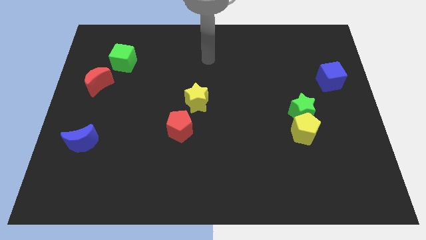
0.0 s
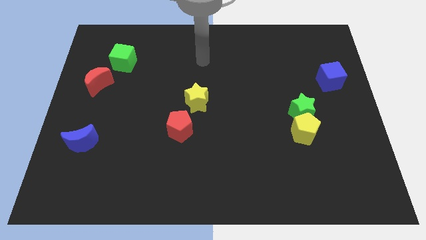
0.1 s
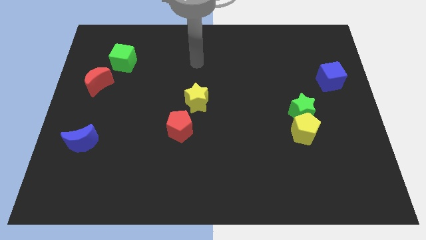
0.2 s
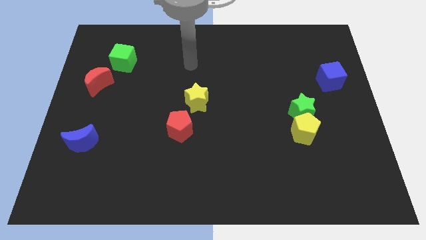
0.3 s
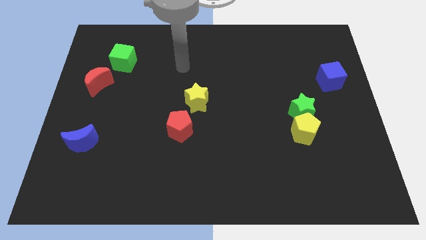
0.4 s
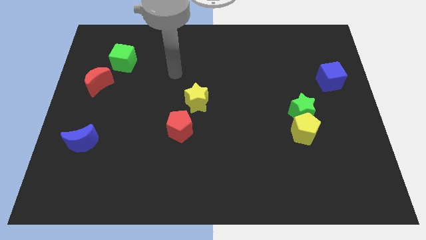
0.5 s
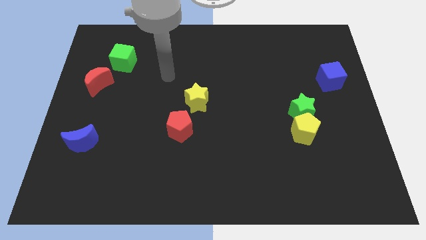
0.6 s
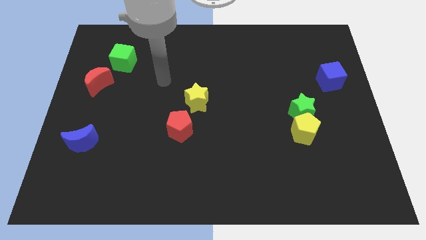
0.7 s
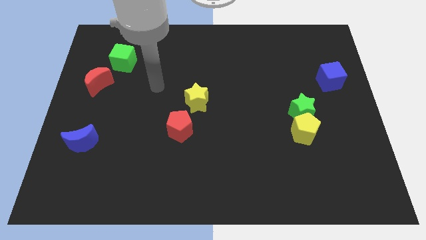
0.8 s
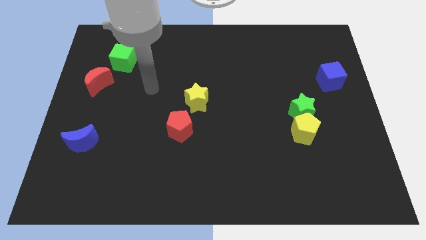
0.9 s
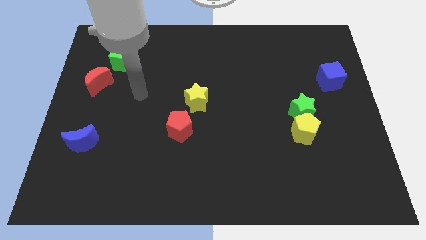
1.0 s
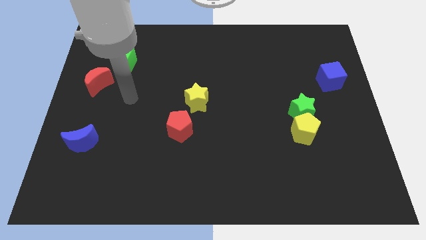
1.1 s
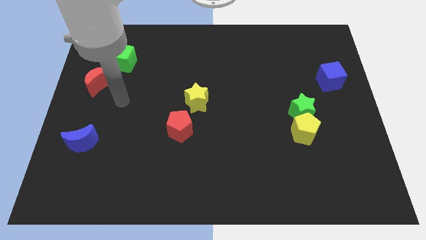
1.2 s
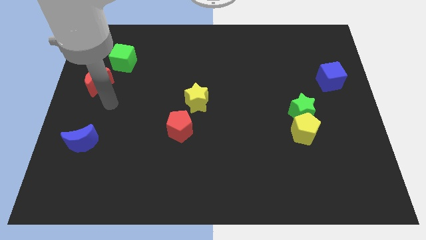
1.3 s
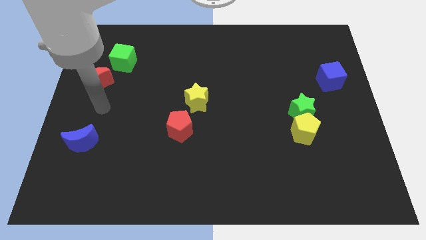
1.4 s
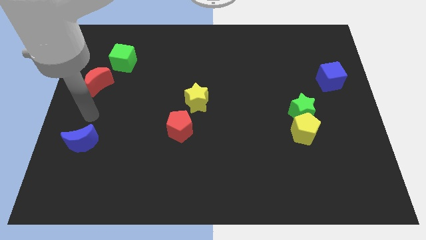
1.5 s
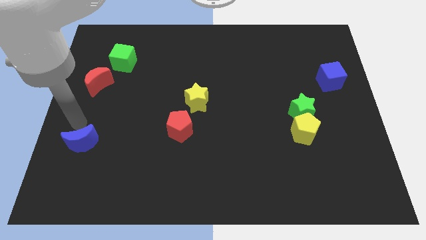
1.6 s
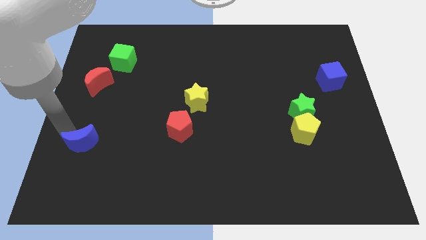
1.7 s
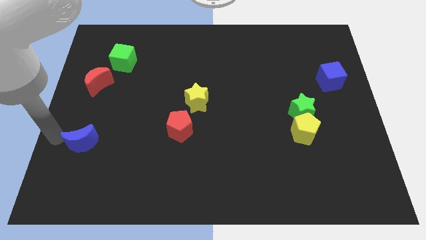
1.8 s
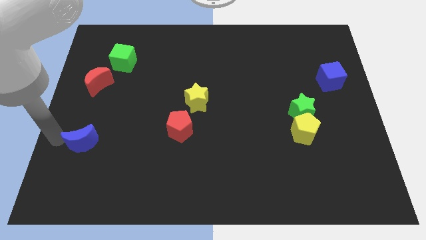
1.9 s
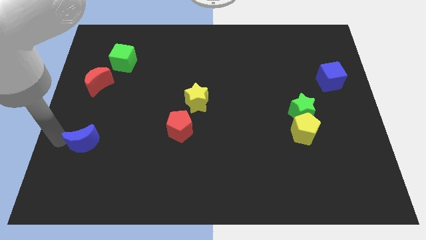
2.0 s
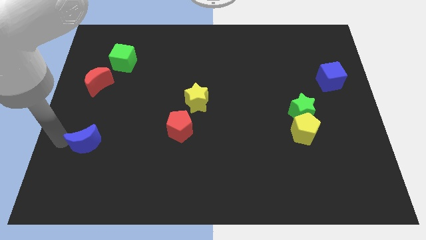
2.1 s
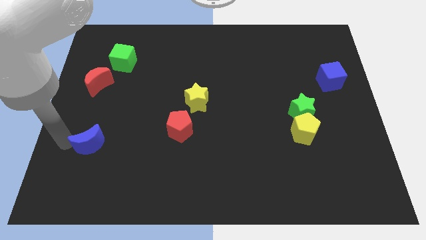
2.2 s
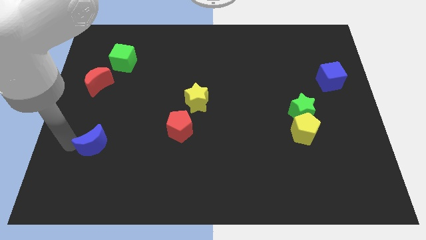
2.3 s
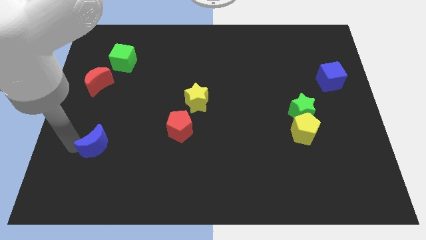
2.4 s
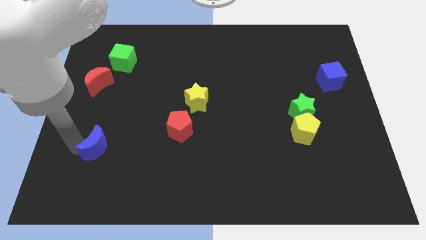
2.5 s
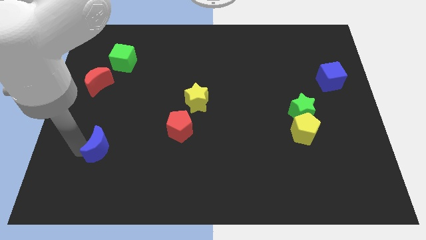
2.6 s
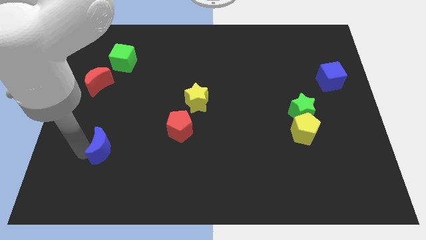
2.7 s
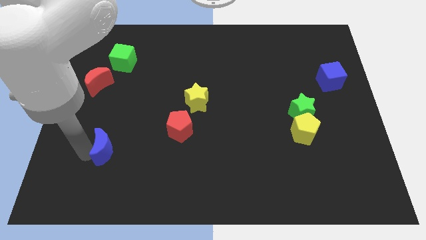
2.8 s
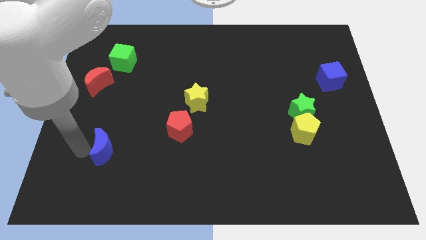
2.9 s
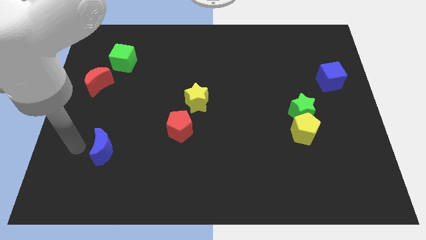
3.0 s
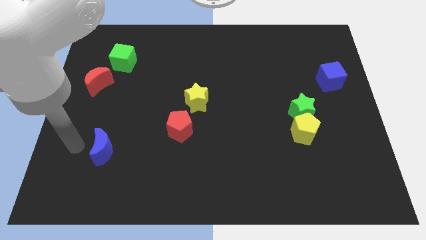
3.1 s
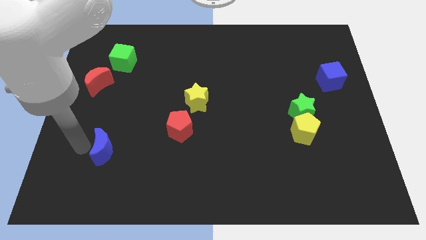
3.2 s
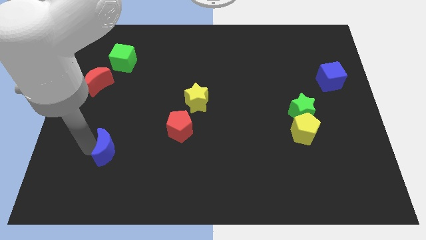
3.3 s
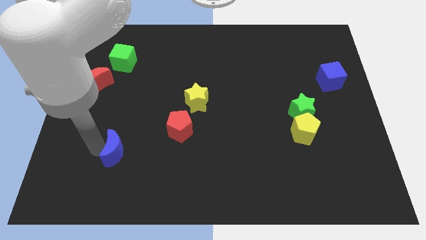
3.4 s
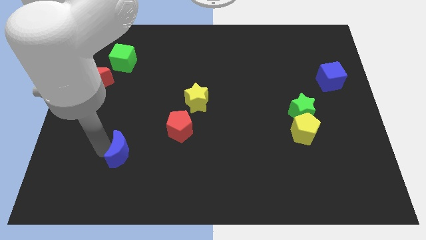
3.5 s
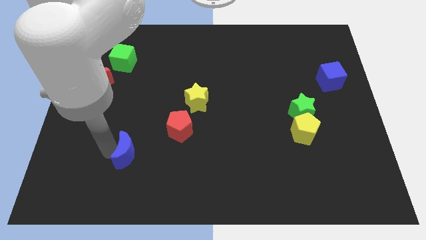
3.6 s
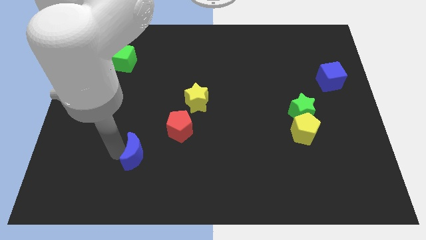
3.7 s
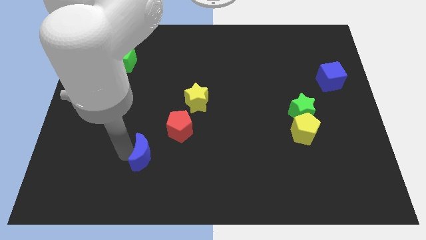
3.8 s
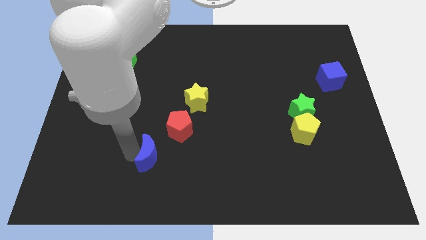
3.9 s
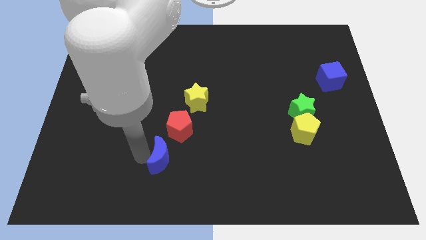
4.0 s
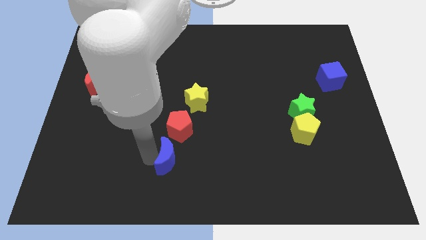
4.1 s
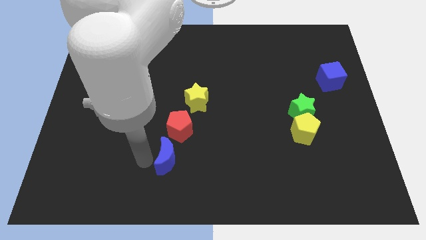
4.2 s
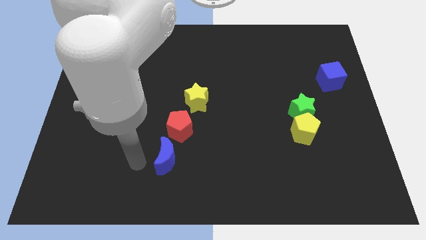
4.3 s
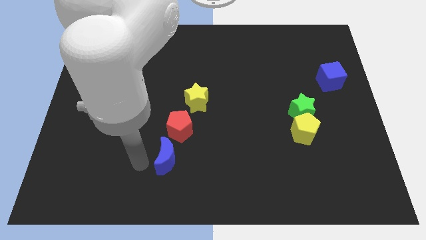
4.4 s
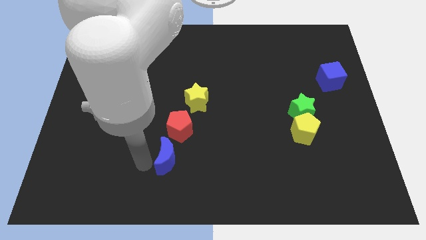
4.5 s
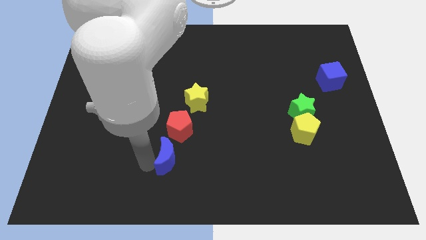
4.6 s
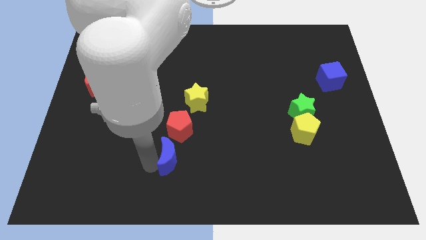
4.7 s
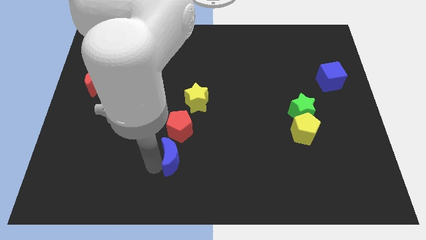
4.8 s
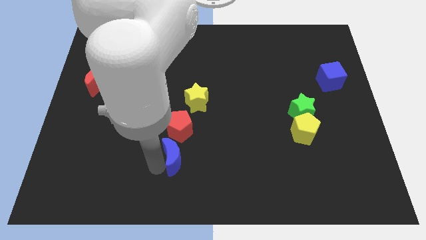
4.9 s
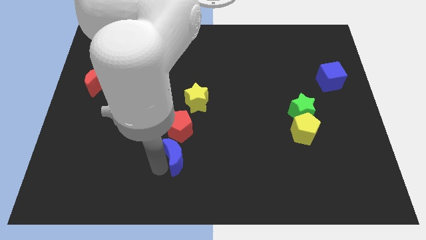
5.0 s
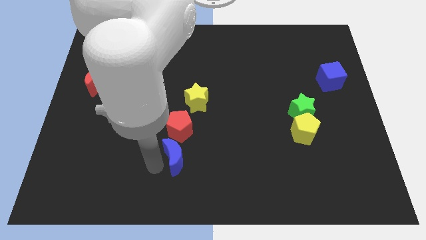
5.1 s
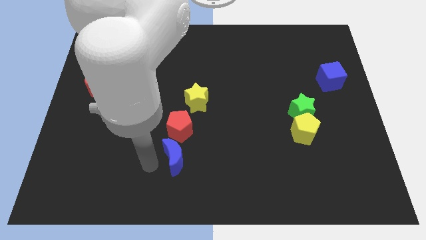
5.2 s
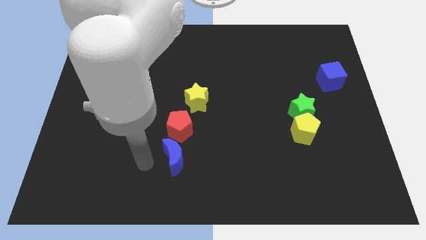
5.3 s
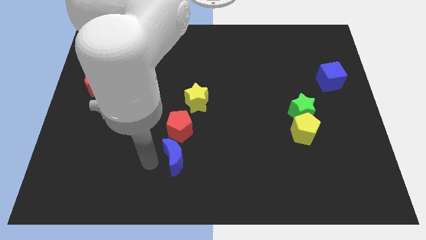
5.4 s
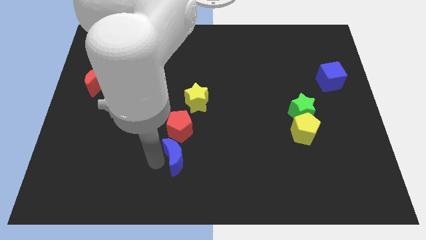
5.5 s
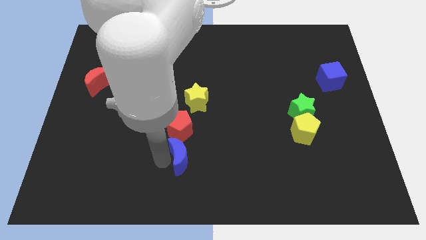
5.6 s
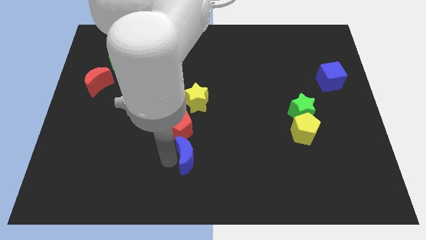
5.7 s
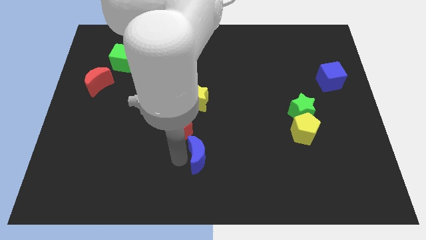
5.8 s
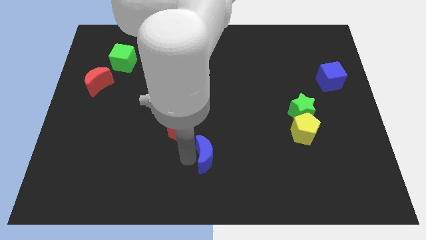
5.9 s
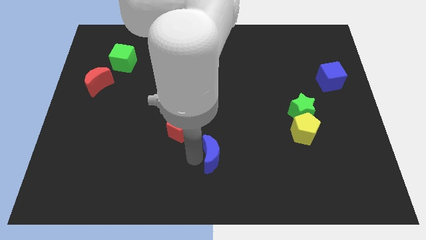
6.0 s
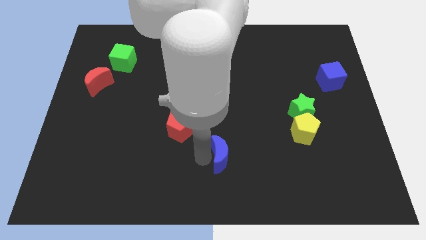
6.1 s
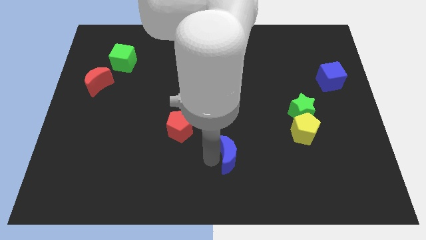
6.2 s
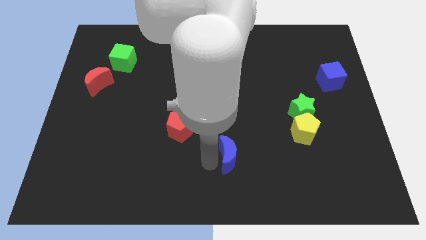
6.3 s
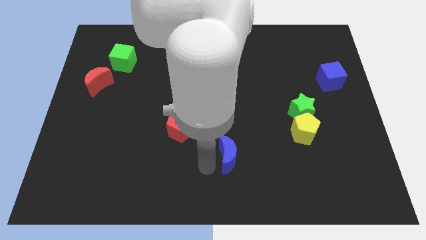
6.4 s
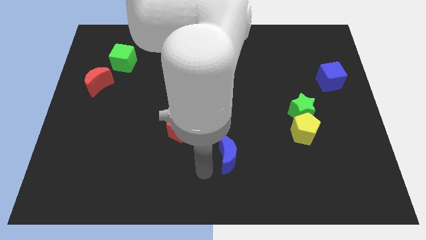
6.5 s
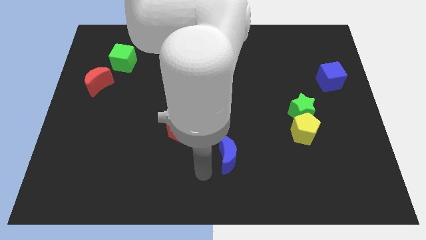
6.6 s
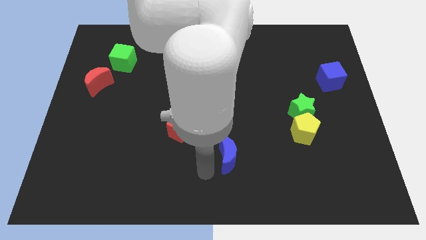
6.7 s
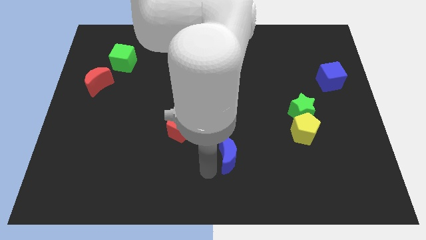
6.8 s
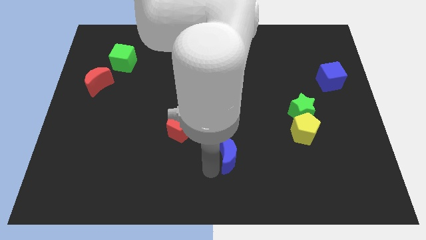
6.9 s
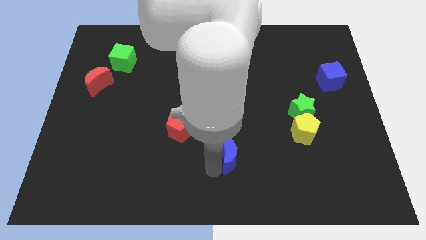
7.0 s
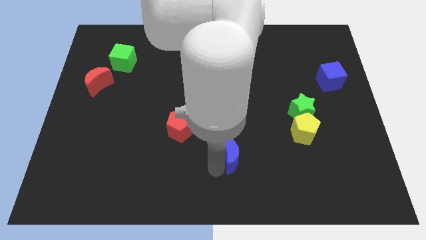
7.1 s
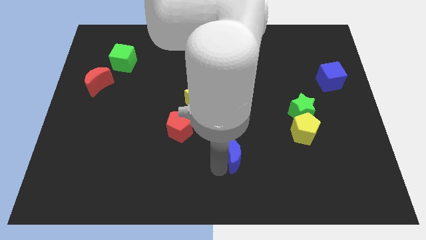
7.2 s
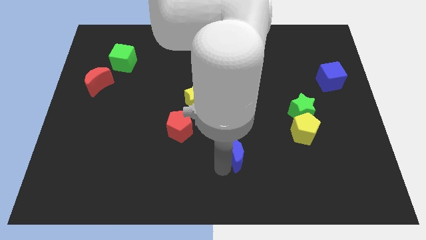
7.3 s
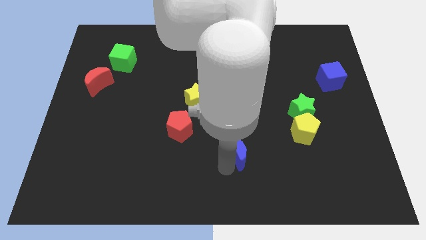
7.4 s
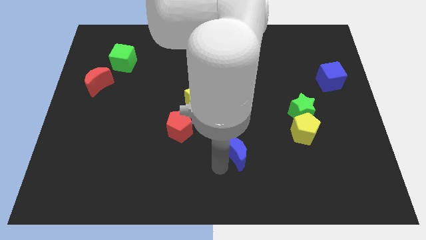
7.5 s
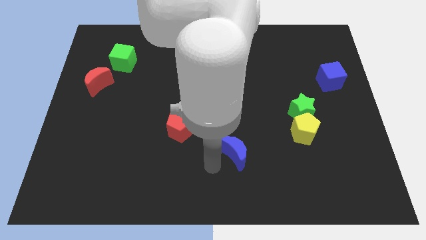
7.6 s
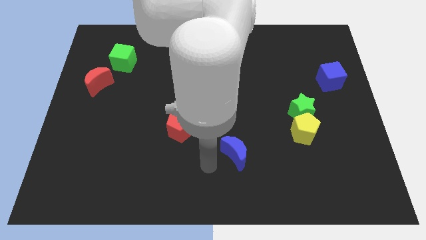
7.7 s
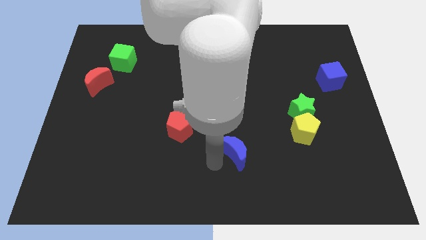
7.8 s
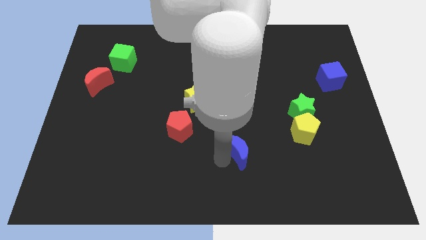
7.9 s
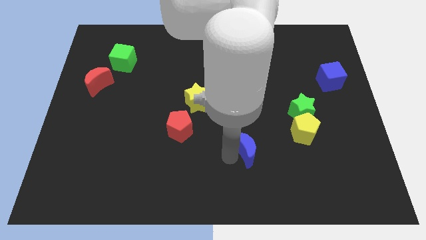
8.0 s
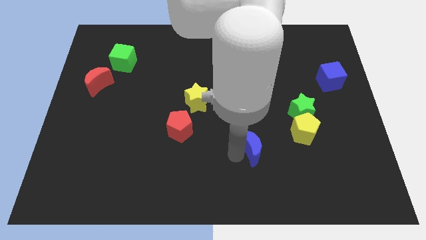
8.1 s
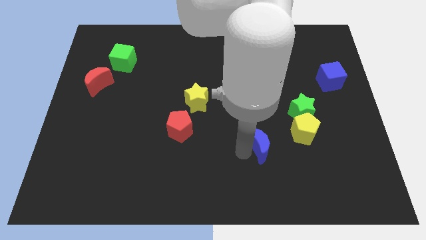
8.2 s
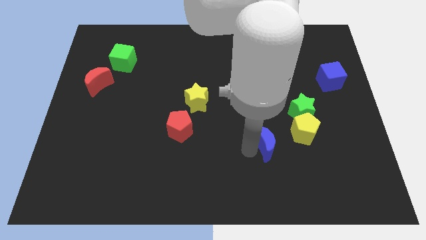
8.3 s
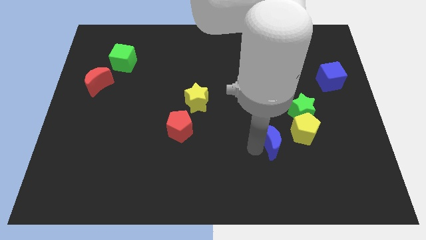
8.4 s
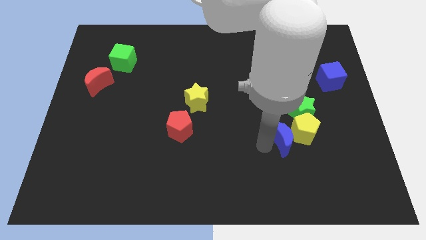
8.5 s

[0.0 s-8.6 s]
put the blue moon to the yellow pentagon
